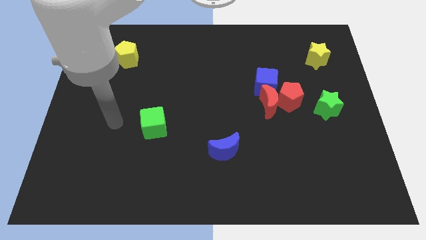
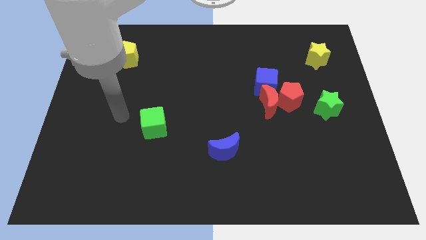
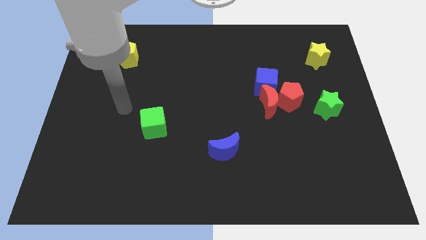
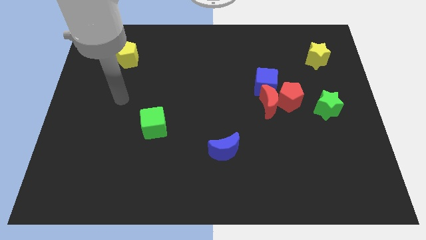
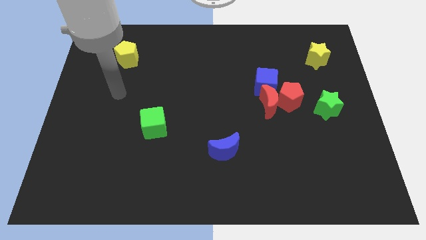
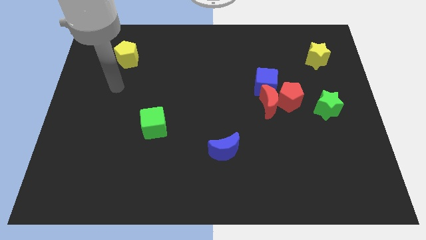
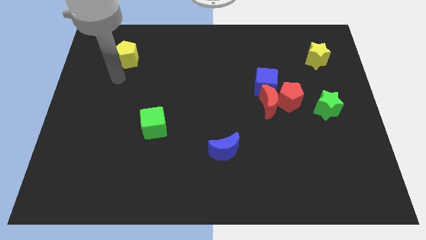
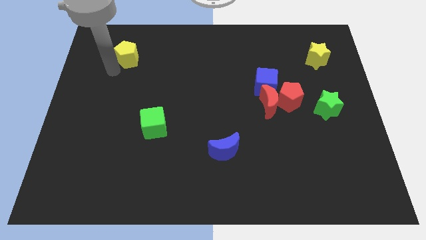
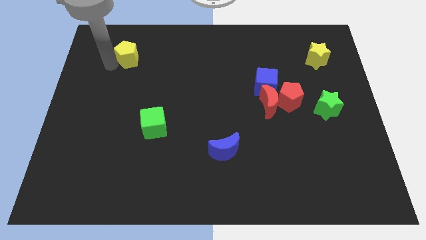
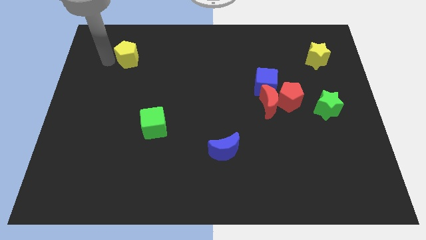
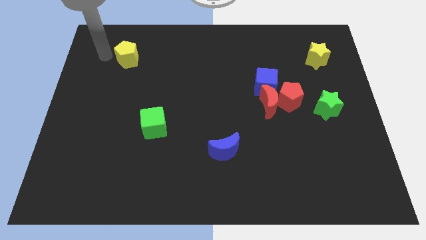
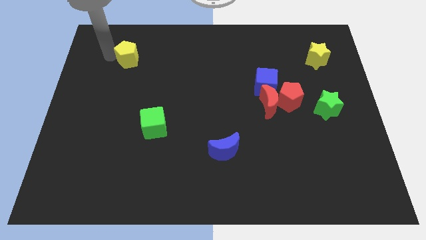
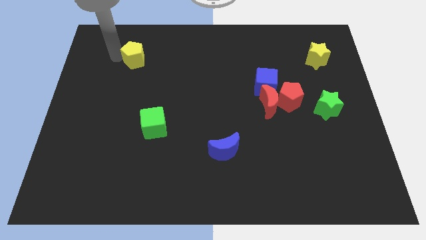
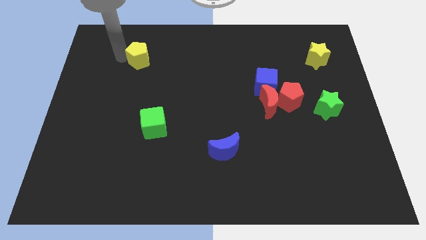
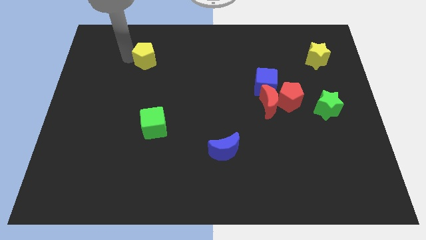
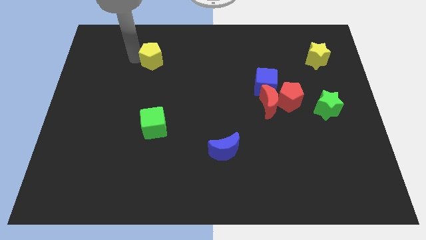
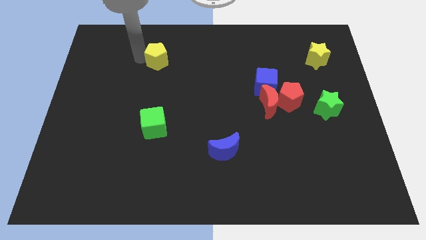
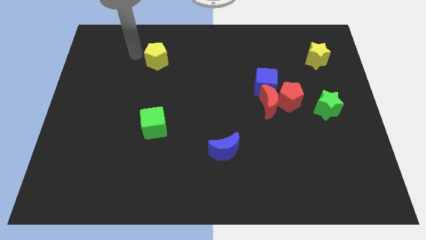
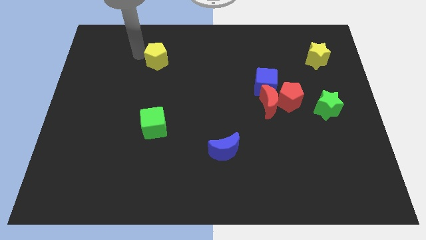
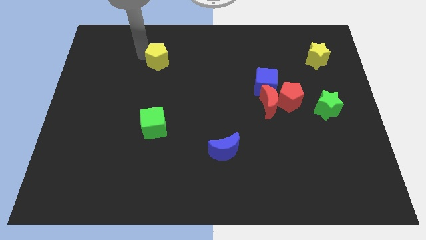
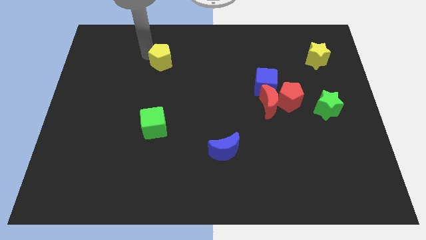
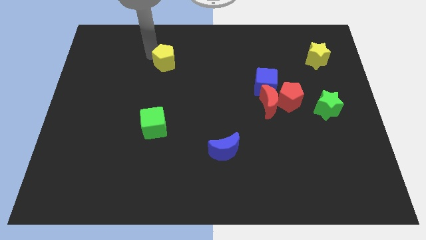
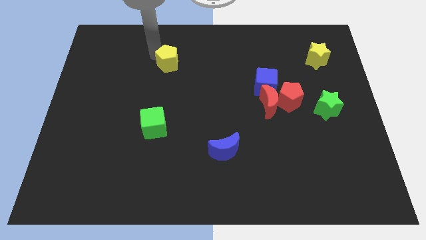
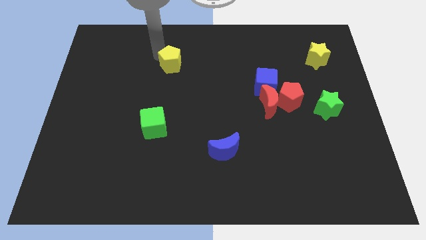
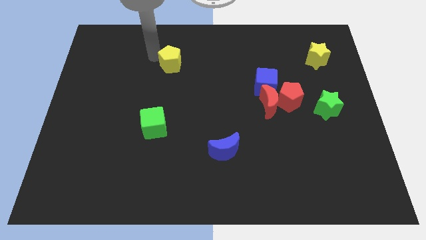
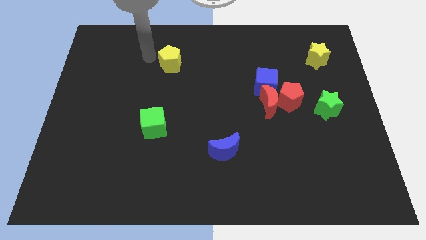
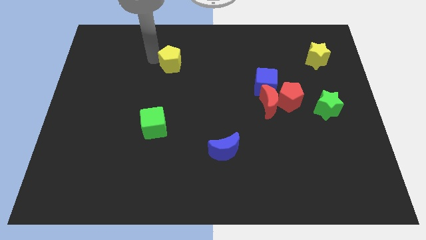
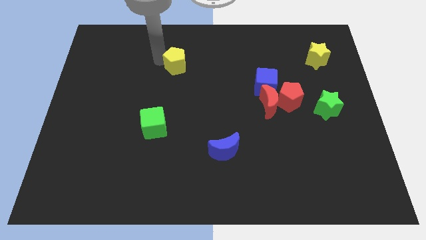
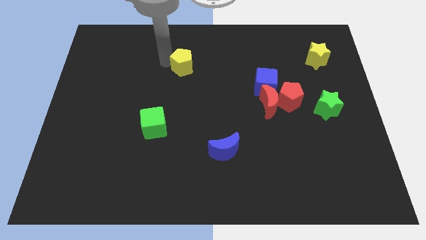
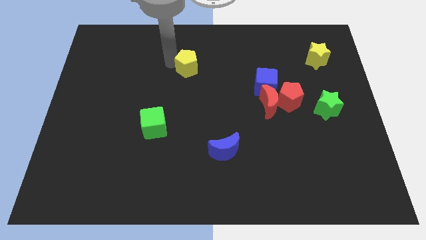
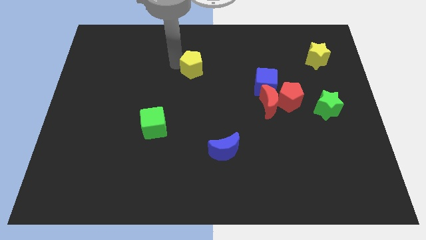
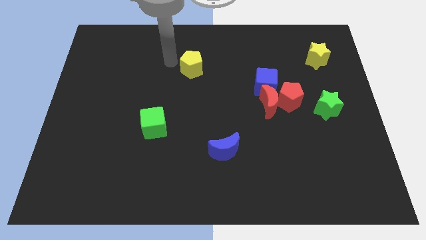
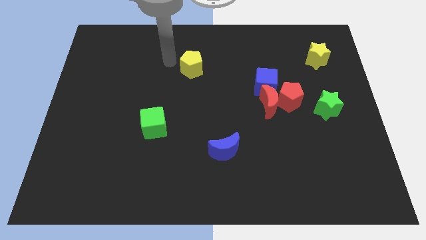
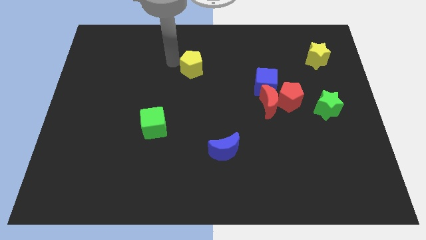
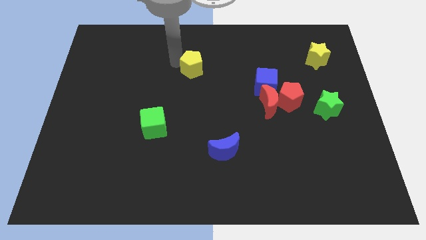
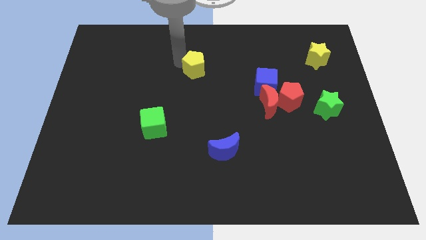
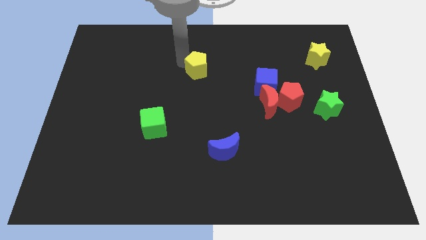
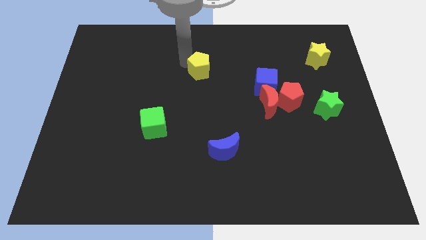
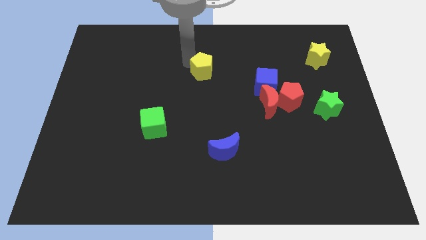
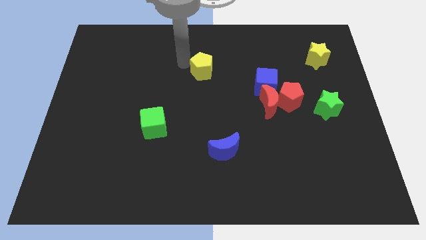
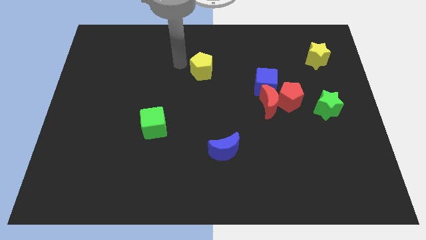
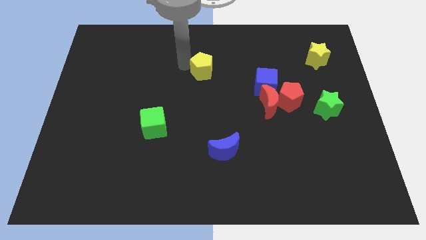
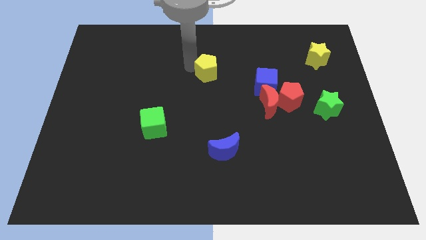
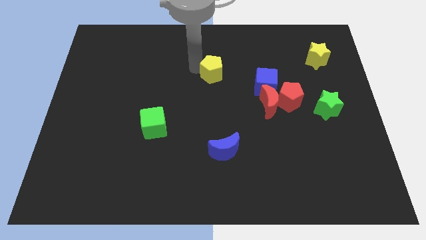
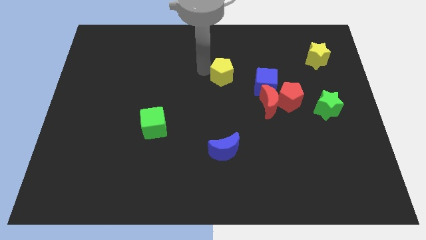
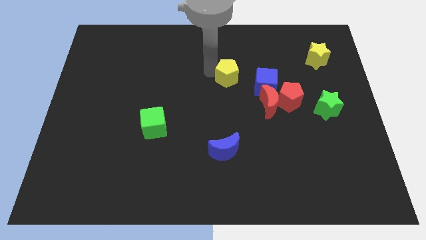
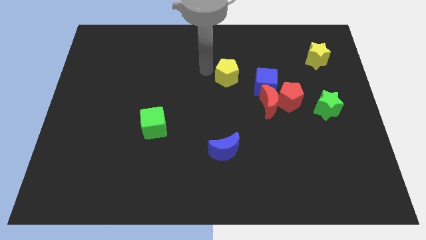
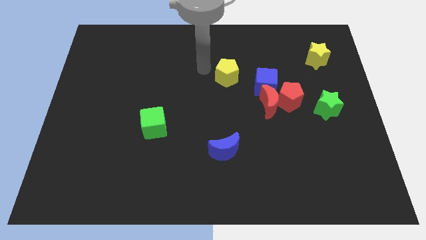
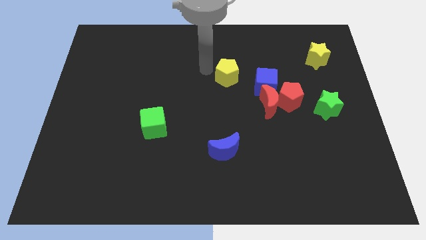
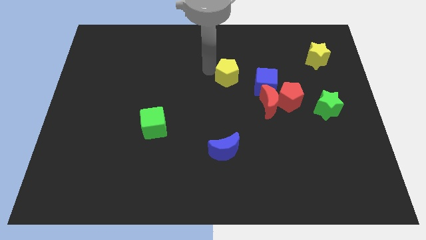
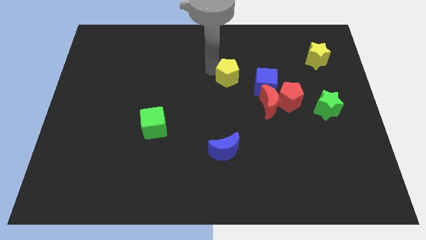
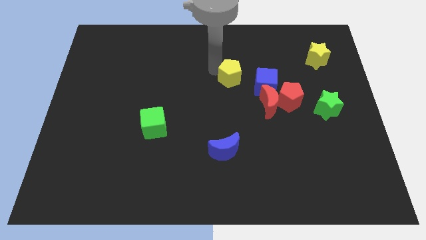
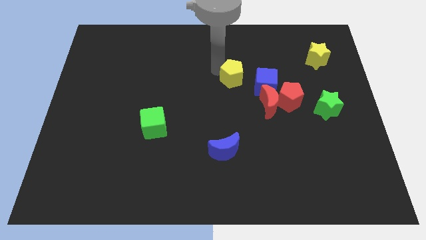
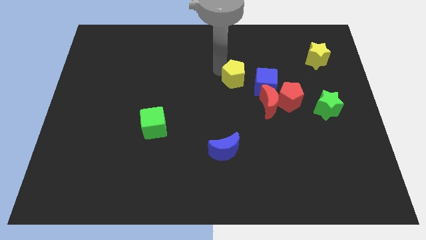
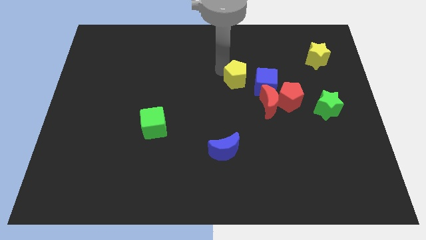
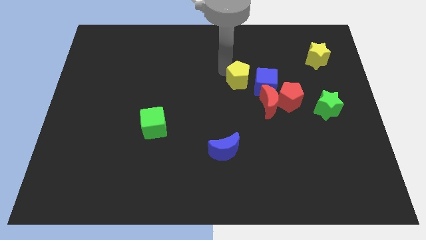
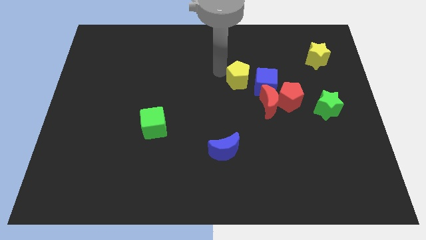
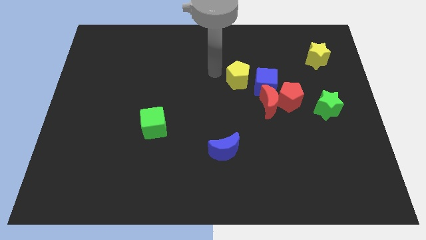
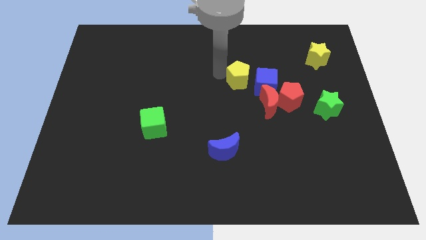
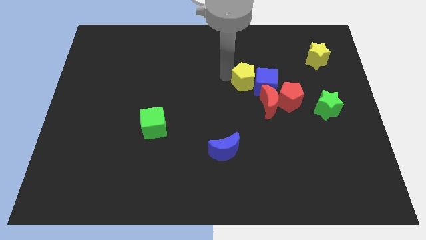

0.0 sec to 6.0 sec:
slide the yellow pentagon next to the blue cube

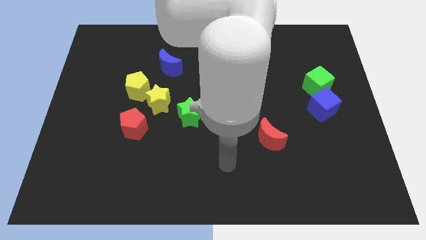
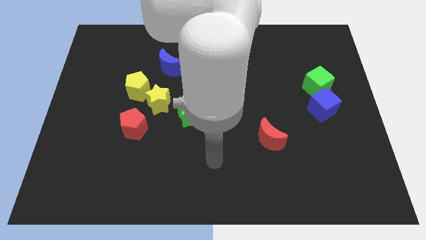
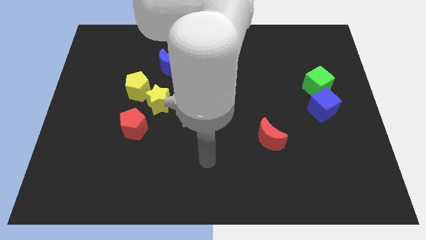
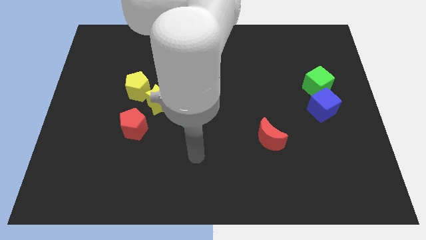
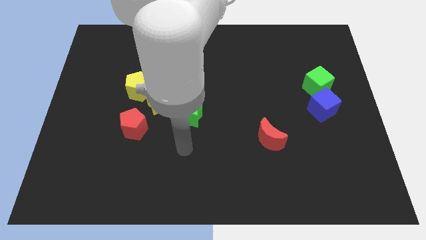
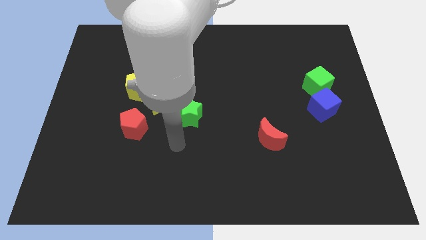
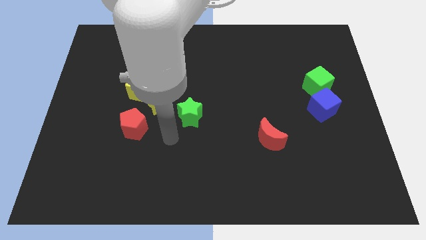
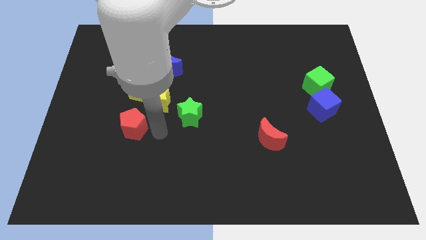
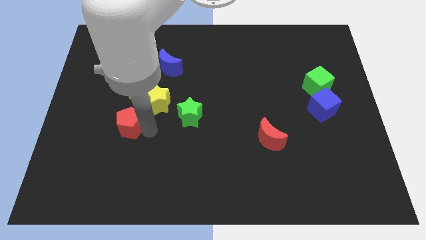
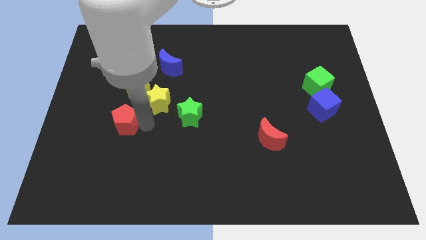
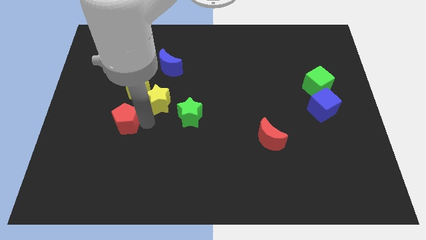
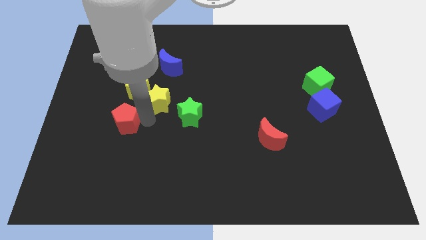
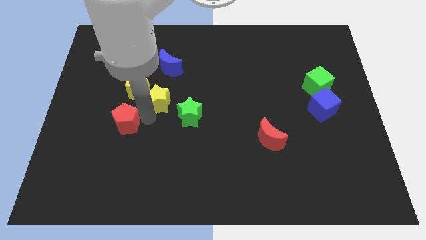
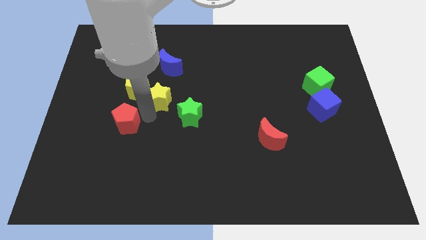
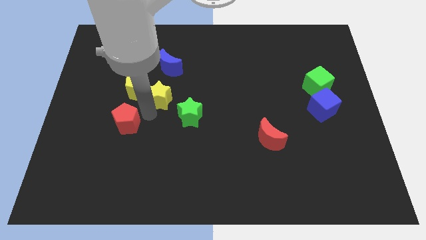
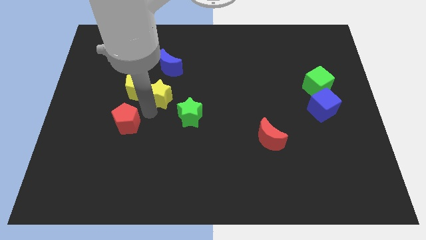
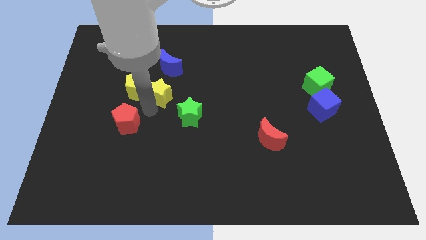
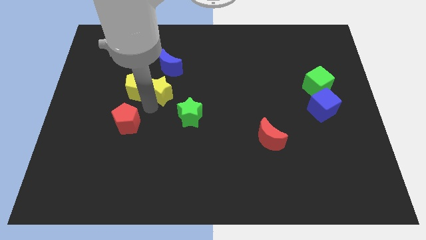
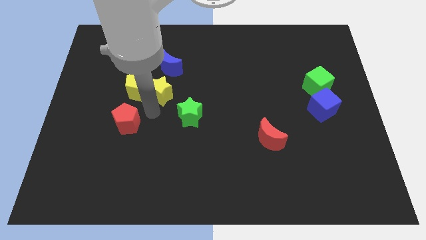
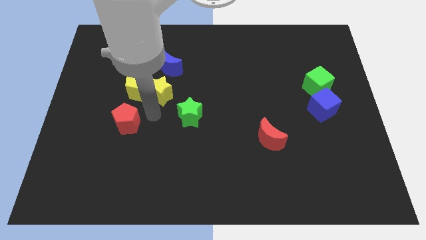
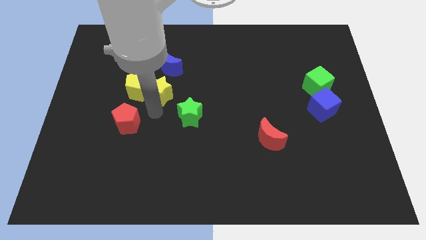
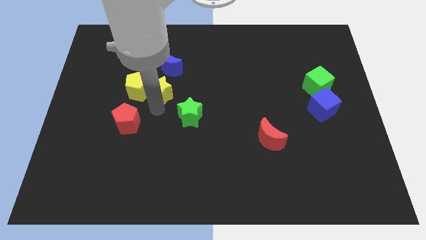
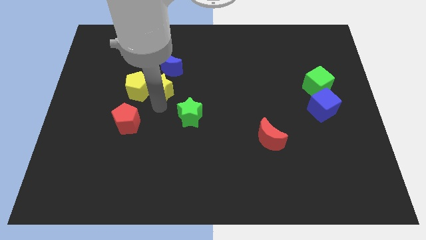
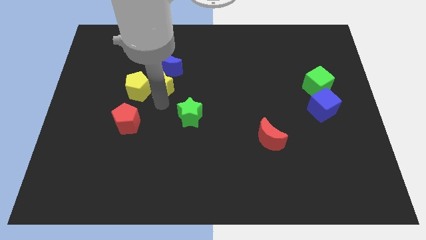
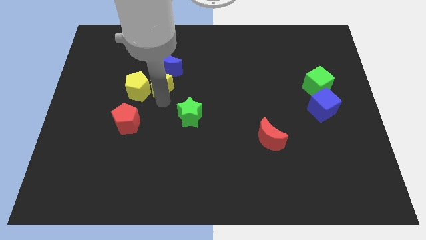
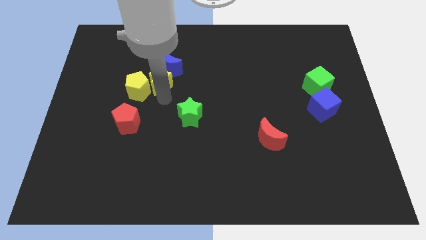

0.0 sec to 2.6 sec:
move the yellow star next to the blue moon
